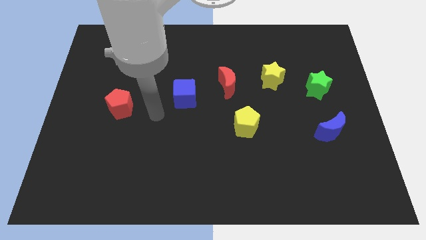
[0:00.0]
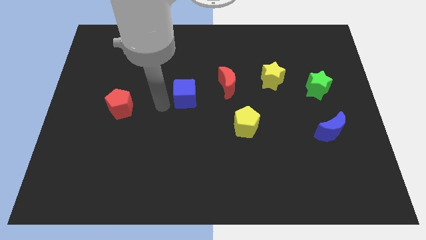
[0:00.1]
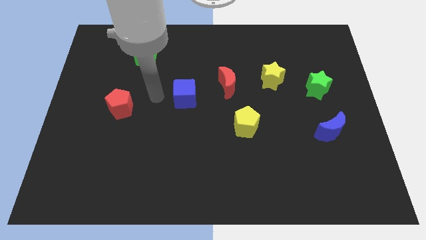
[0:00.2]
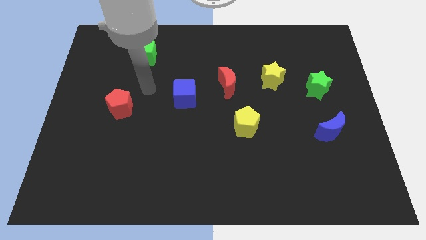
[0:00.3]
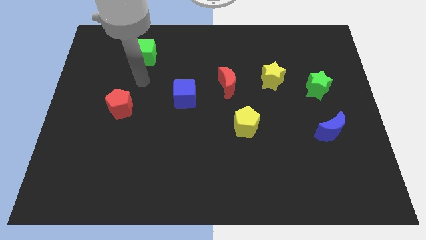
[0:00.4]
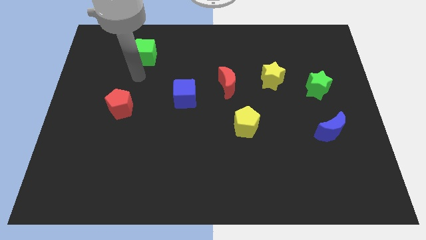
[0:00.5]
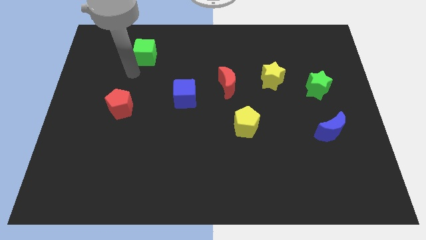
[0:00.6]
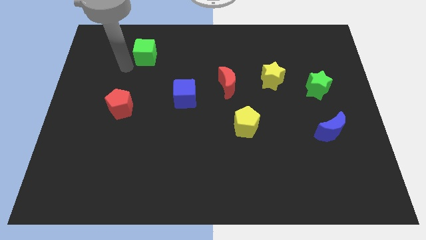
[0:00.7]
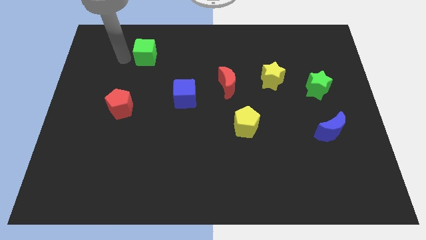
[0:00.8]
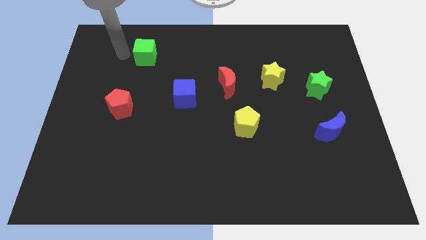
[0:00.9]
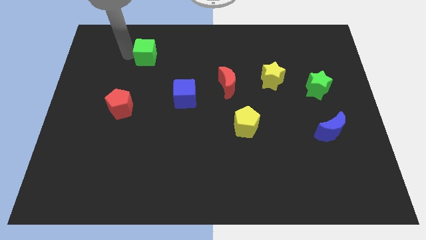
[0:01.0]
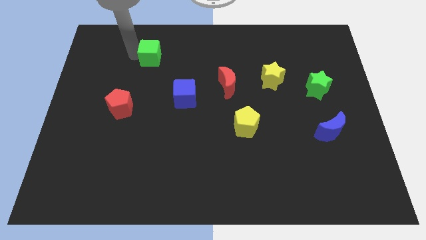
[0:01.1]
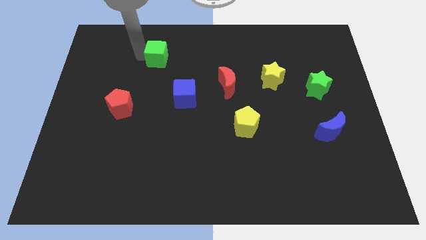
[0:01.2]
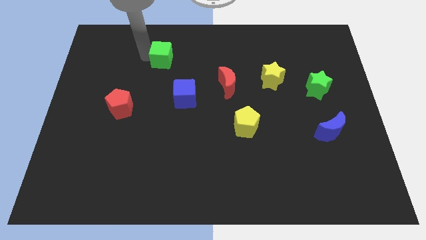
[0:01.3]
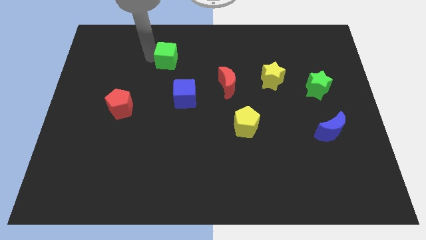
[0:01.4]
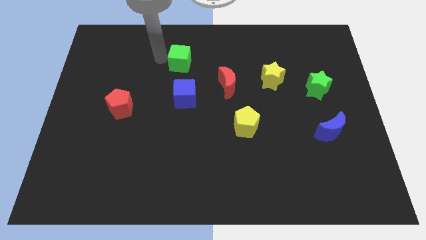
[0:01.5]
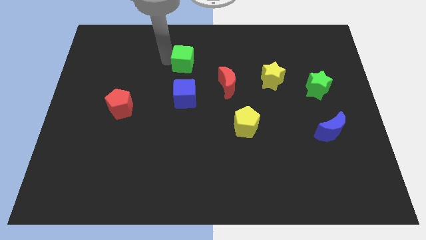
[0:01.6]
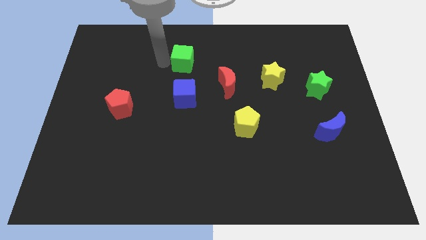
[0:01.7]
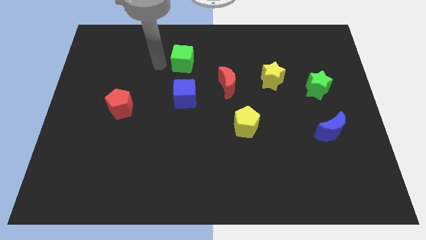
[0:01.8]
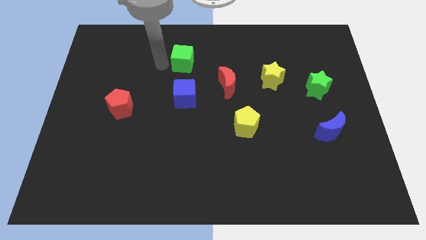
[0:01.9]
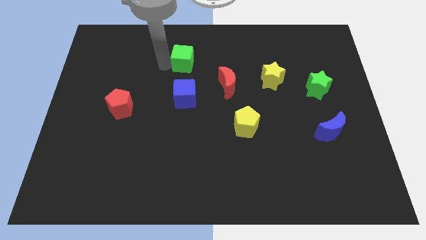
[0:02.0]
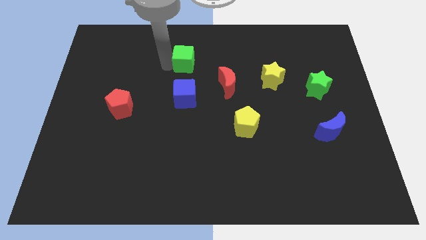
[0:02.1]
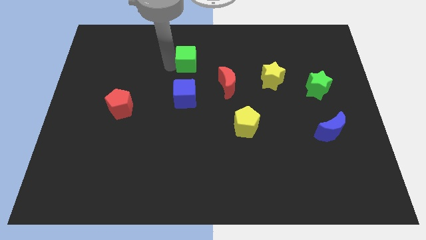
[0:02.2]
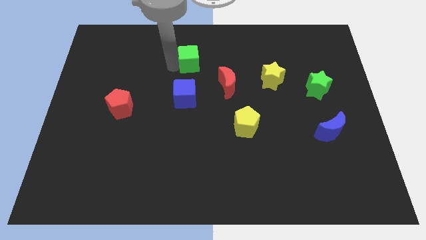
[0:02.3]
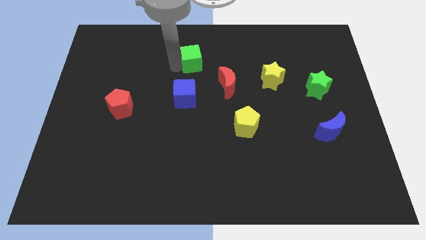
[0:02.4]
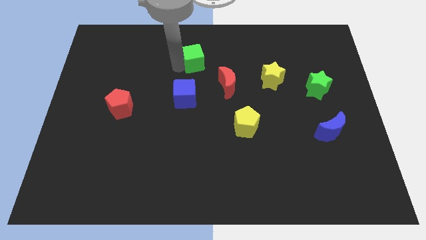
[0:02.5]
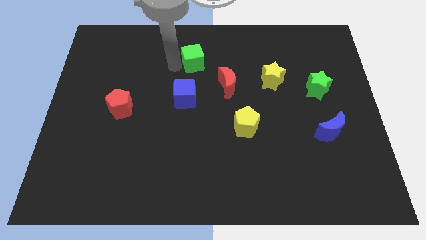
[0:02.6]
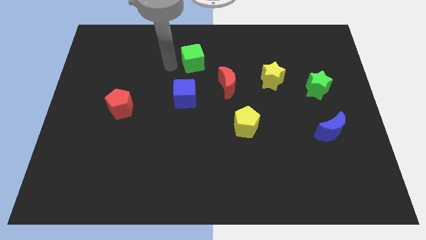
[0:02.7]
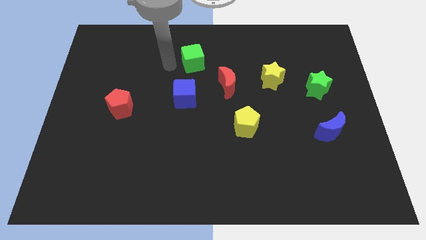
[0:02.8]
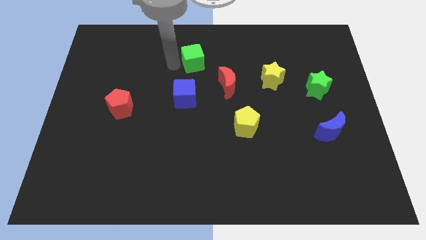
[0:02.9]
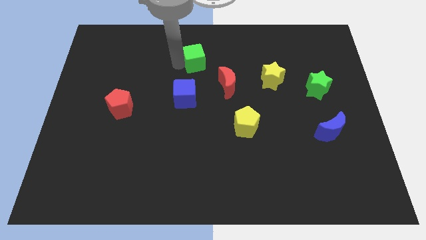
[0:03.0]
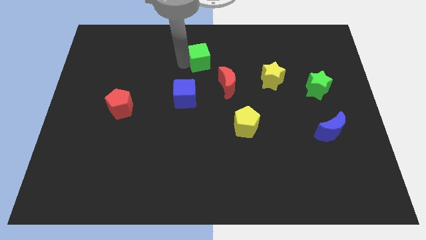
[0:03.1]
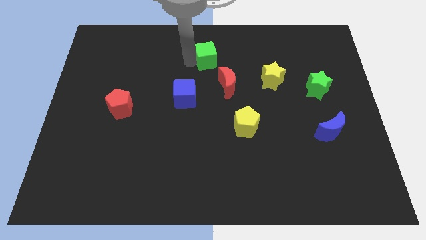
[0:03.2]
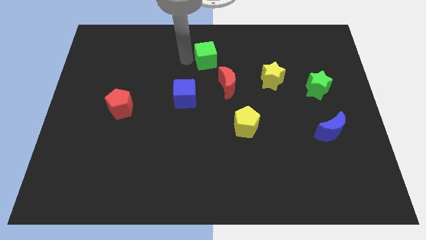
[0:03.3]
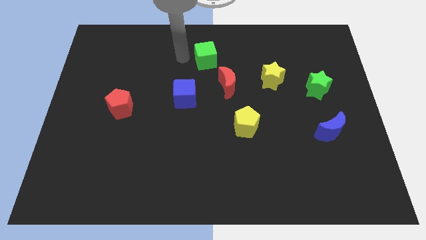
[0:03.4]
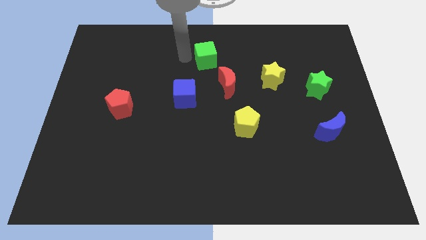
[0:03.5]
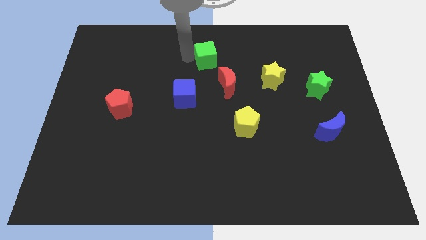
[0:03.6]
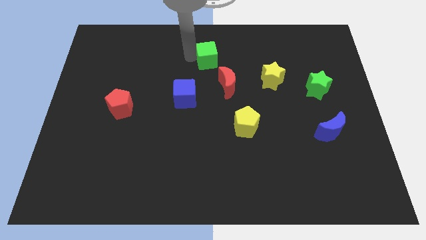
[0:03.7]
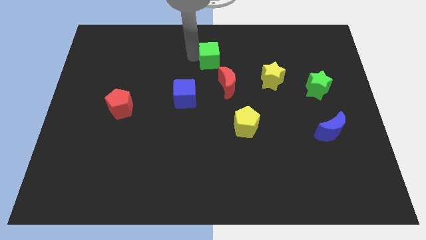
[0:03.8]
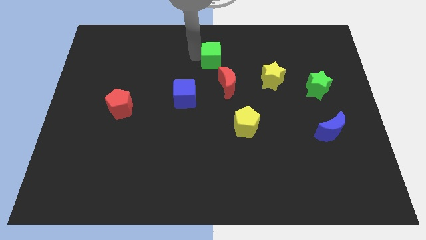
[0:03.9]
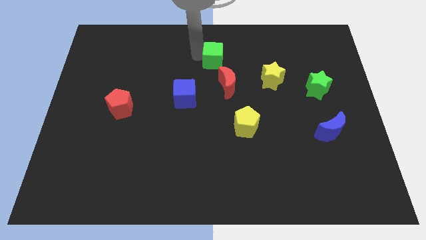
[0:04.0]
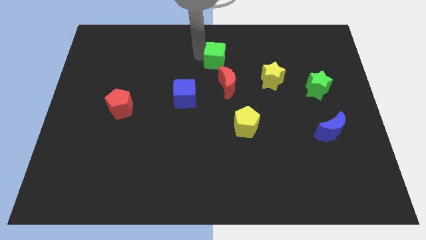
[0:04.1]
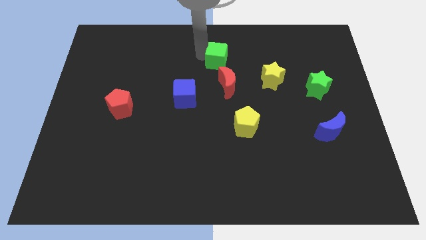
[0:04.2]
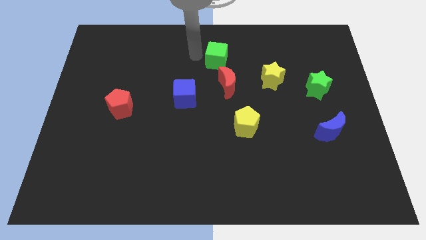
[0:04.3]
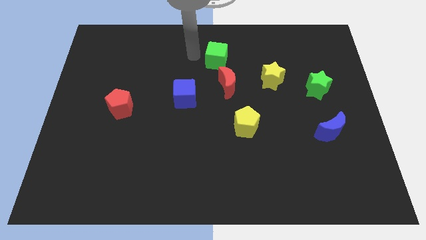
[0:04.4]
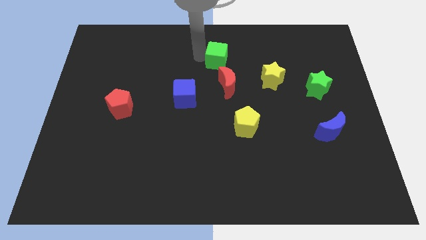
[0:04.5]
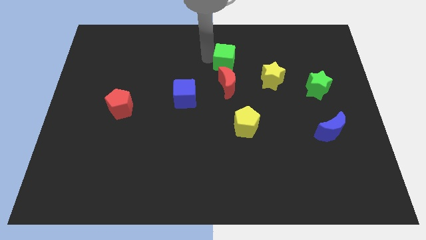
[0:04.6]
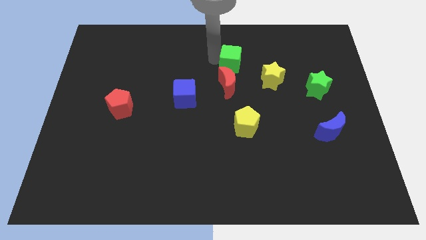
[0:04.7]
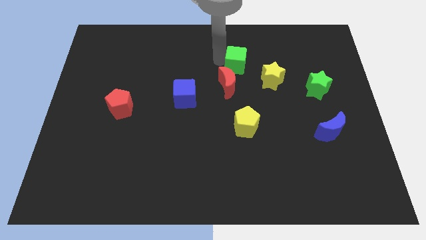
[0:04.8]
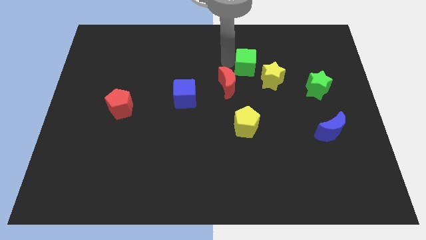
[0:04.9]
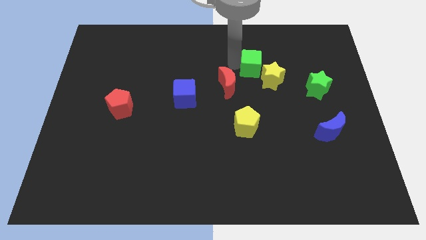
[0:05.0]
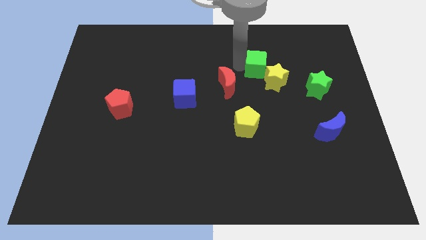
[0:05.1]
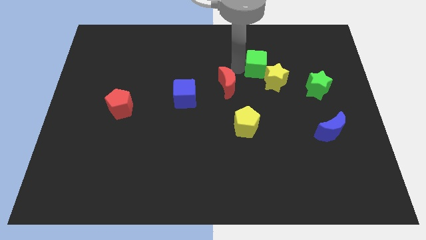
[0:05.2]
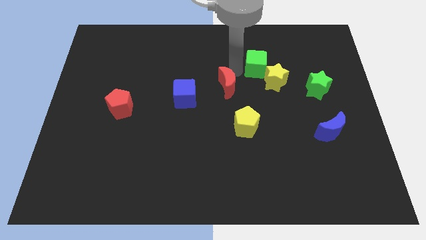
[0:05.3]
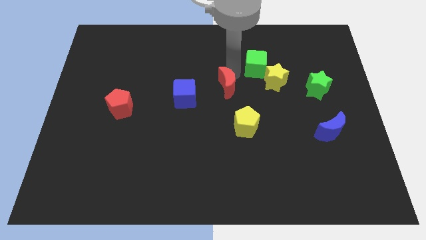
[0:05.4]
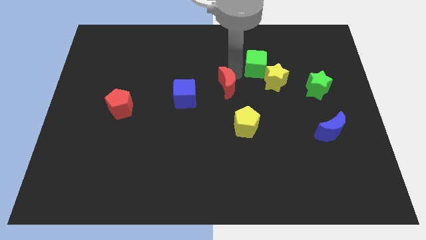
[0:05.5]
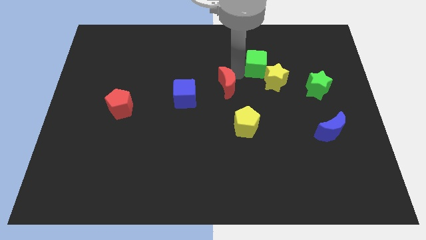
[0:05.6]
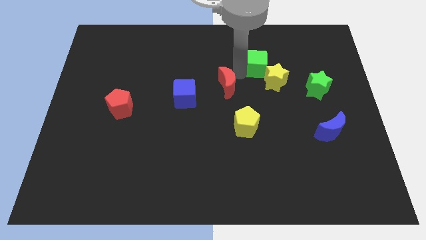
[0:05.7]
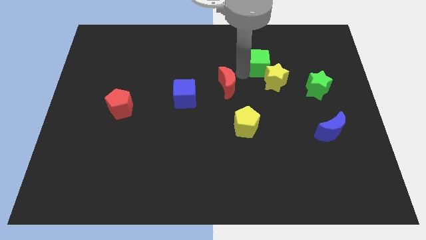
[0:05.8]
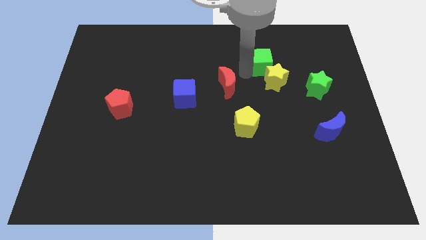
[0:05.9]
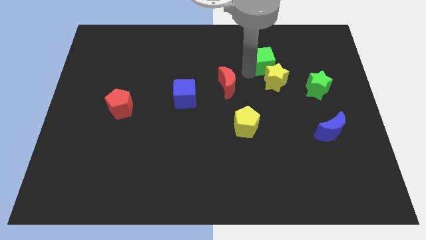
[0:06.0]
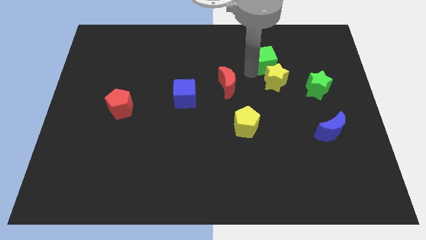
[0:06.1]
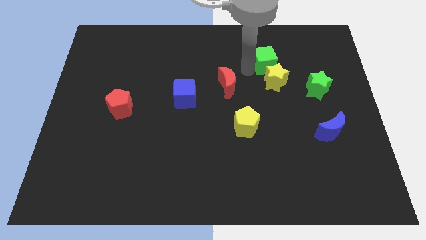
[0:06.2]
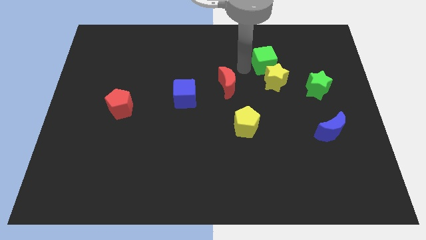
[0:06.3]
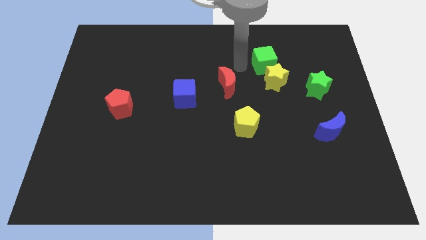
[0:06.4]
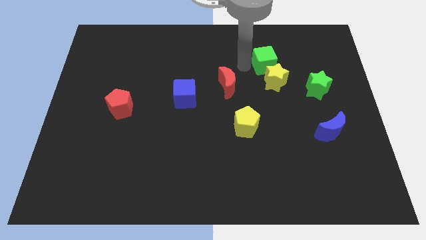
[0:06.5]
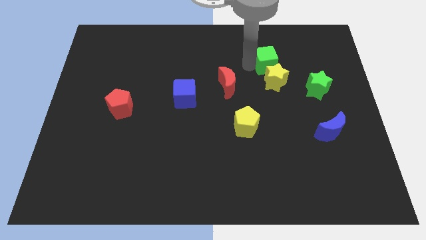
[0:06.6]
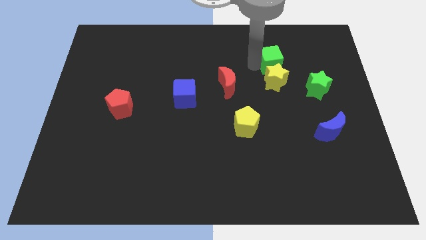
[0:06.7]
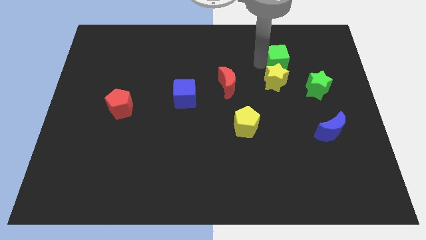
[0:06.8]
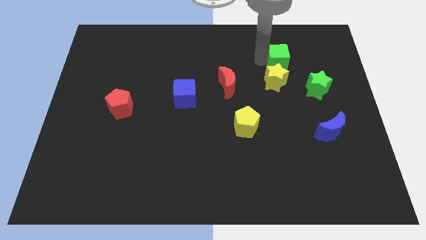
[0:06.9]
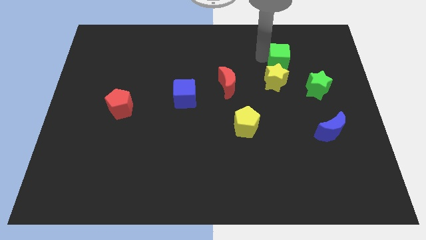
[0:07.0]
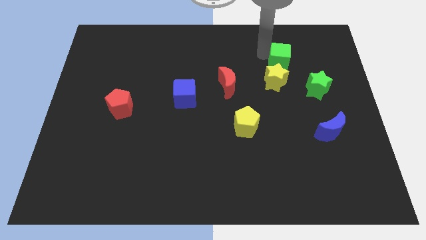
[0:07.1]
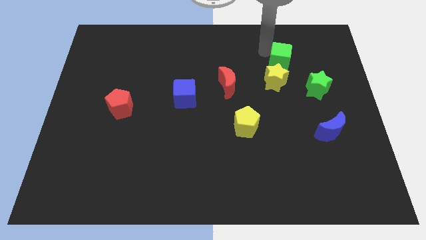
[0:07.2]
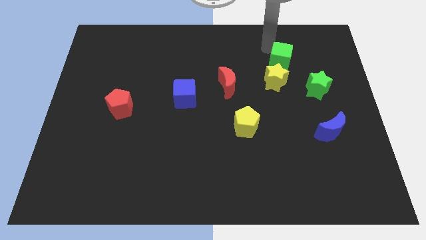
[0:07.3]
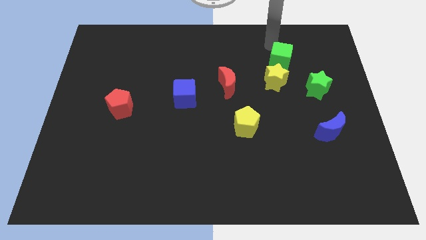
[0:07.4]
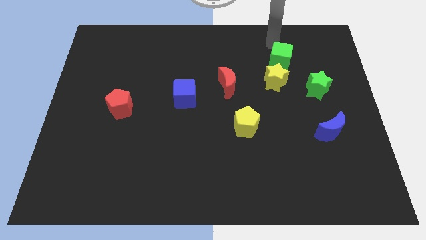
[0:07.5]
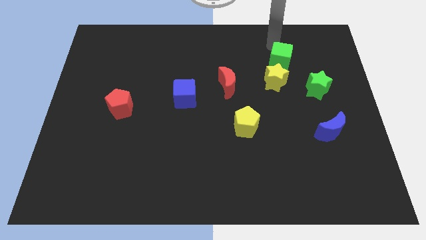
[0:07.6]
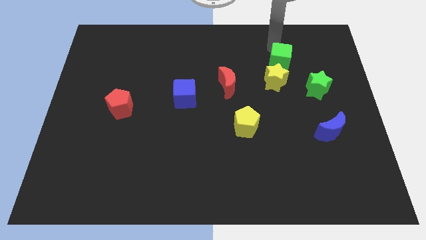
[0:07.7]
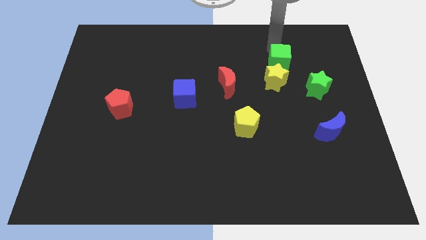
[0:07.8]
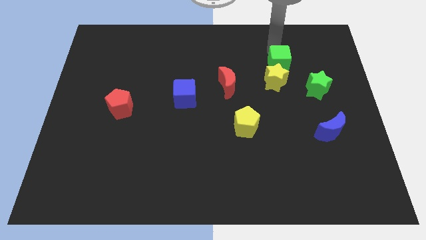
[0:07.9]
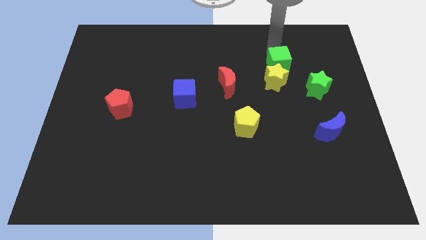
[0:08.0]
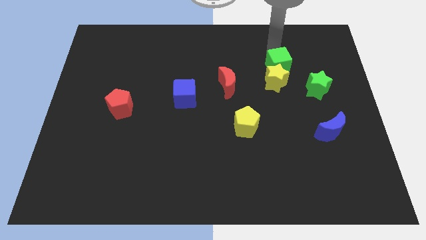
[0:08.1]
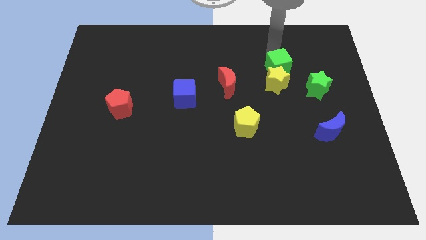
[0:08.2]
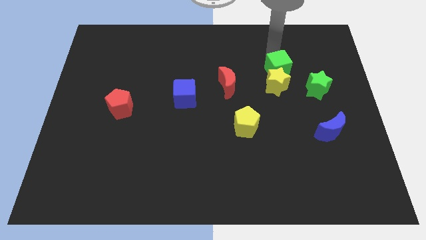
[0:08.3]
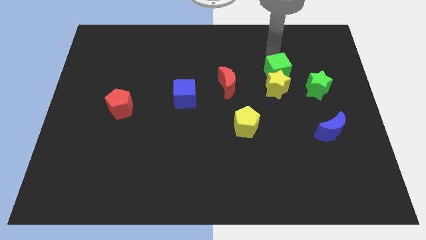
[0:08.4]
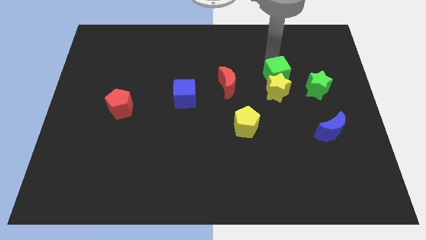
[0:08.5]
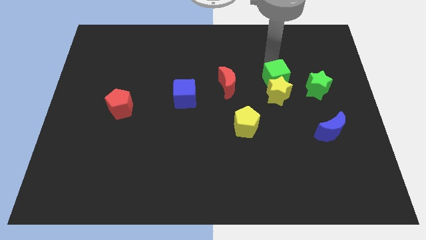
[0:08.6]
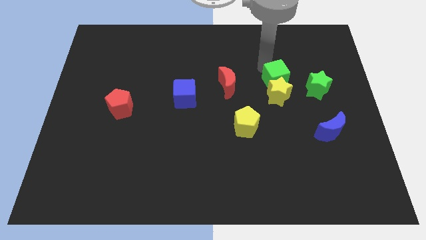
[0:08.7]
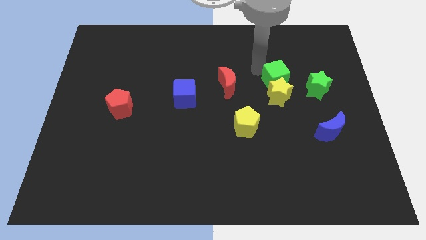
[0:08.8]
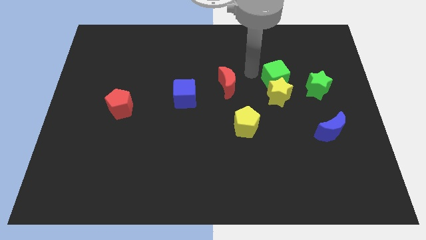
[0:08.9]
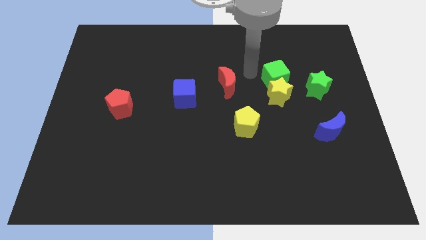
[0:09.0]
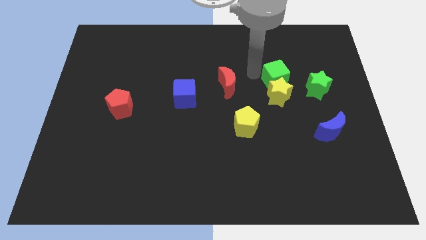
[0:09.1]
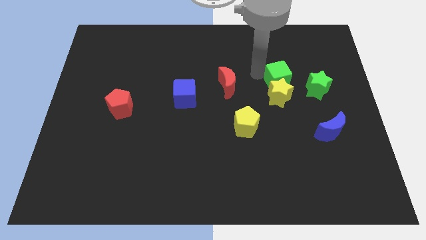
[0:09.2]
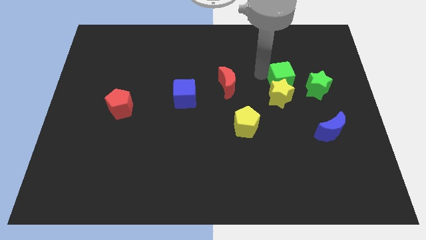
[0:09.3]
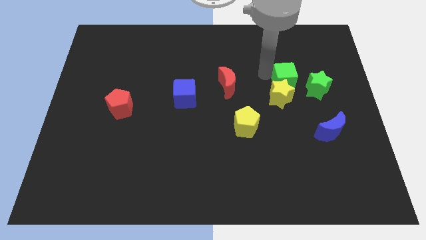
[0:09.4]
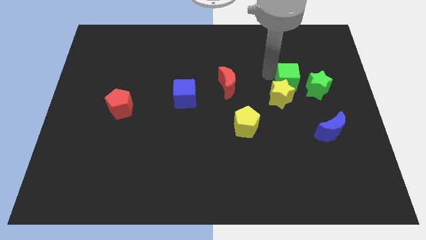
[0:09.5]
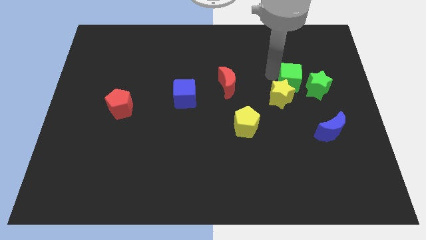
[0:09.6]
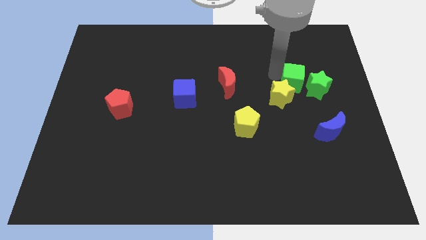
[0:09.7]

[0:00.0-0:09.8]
slide the green cube close to the green star
